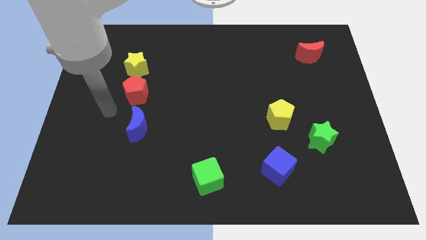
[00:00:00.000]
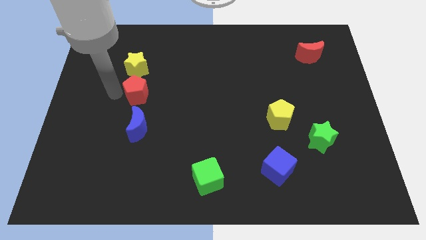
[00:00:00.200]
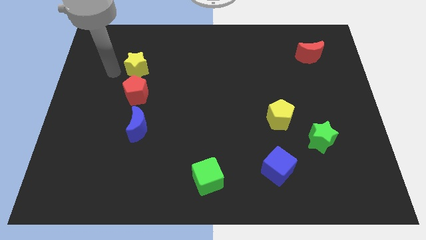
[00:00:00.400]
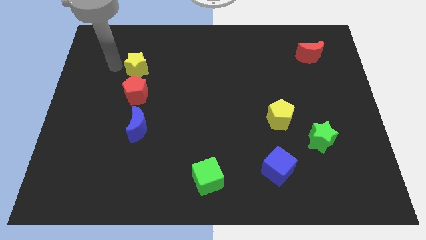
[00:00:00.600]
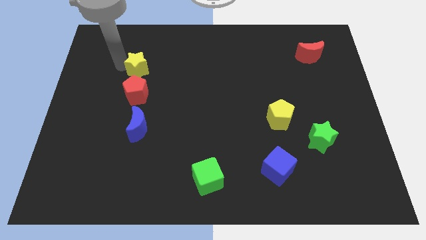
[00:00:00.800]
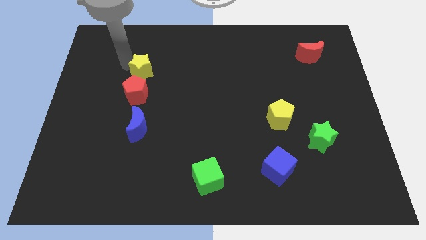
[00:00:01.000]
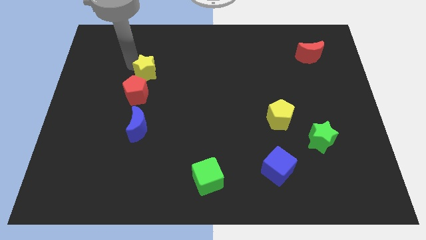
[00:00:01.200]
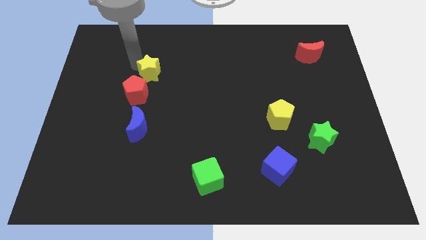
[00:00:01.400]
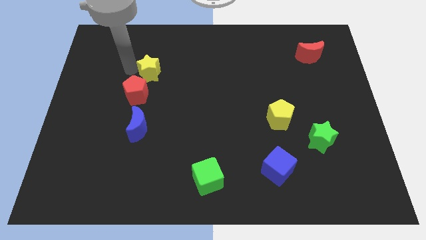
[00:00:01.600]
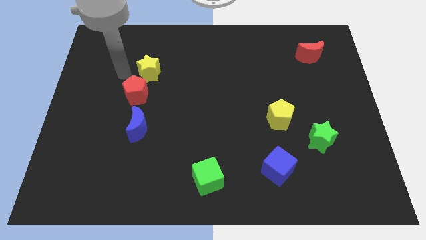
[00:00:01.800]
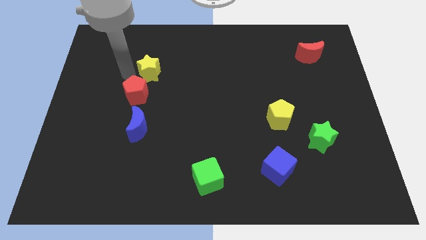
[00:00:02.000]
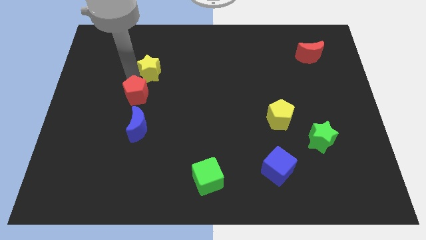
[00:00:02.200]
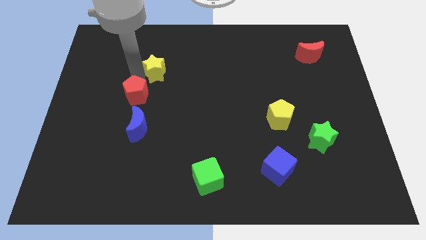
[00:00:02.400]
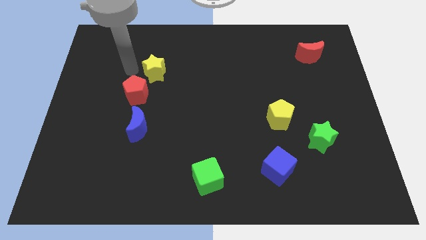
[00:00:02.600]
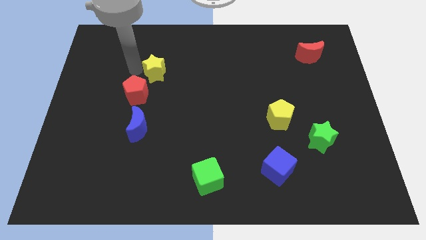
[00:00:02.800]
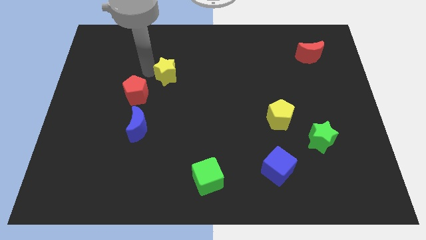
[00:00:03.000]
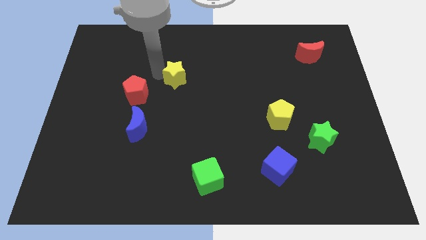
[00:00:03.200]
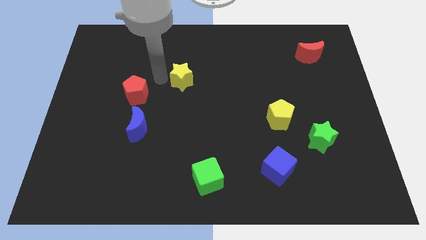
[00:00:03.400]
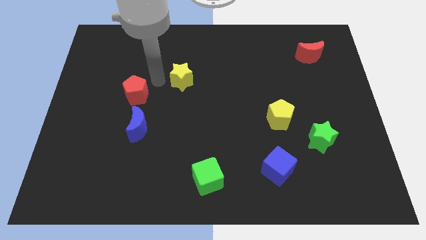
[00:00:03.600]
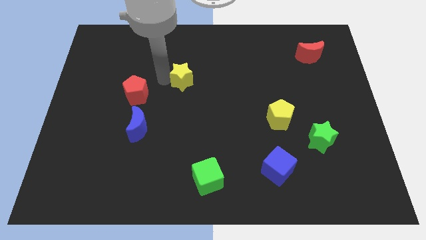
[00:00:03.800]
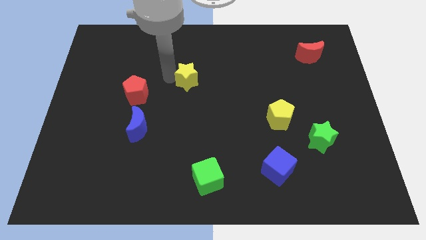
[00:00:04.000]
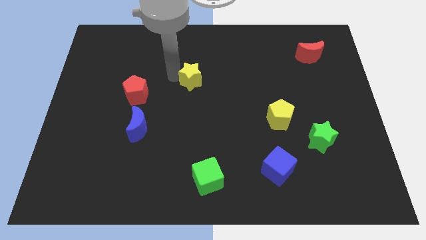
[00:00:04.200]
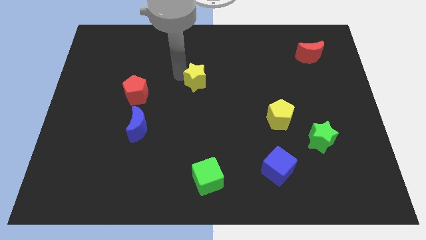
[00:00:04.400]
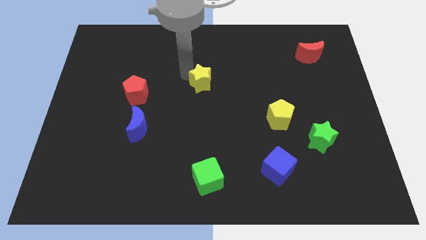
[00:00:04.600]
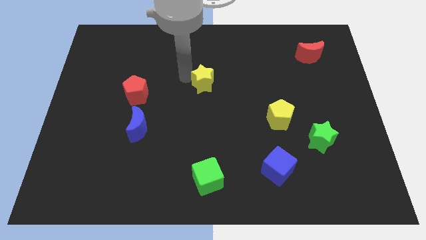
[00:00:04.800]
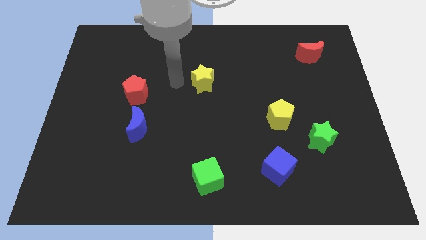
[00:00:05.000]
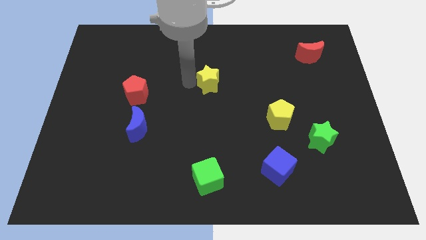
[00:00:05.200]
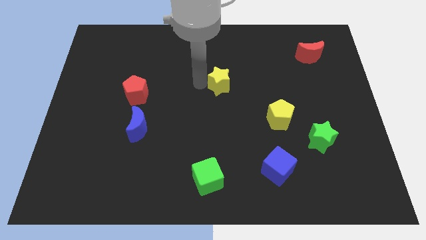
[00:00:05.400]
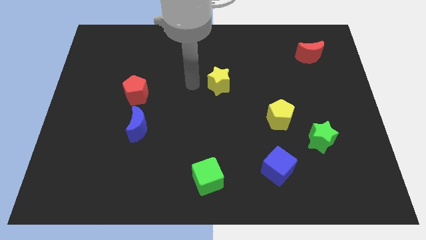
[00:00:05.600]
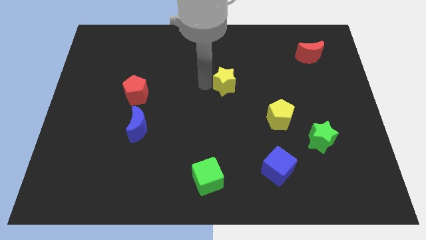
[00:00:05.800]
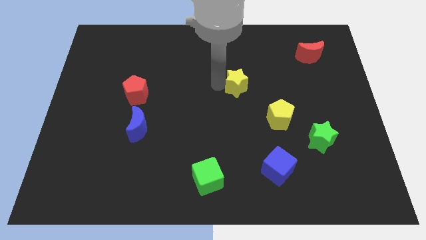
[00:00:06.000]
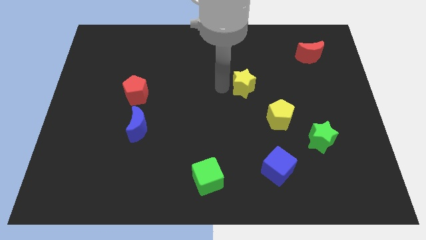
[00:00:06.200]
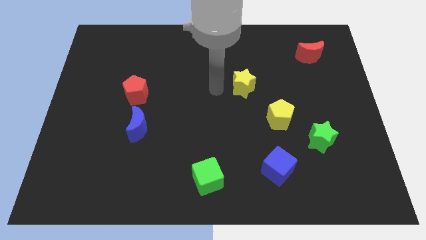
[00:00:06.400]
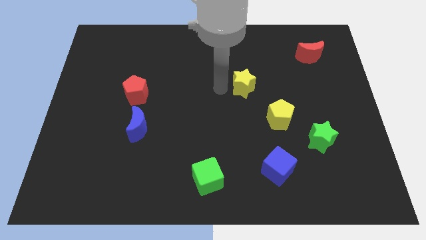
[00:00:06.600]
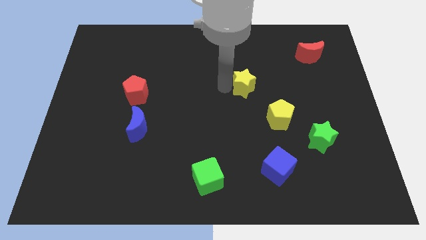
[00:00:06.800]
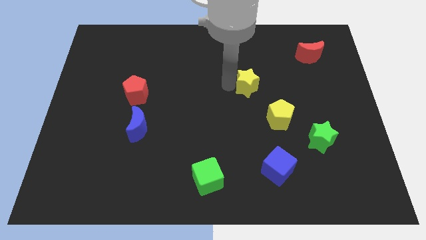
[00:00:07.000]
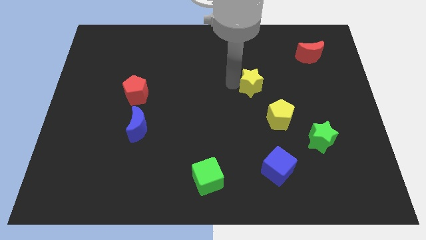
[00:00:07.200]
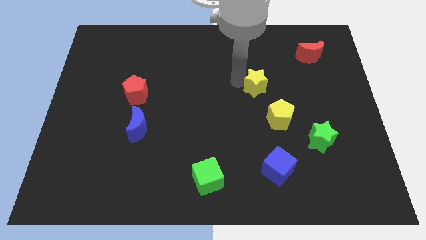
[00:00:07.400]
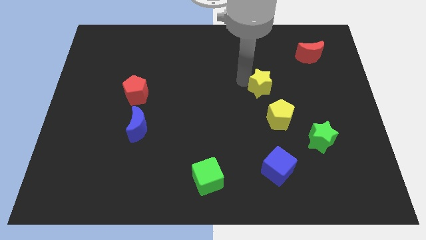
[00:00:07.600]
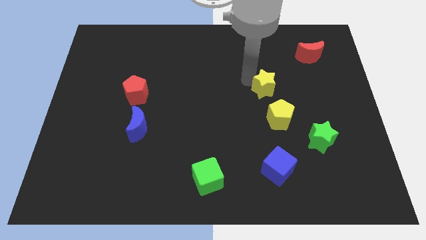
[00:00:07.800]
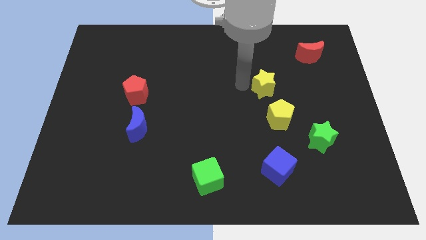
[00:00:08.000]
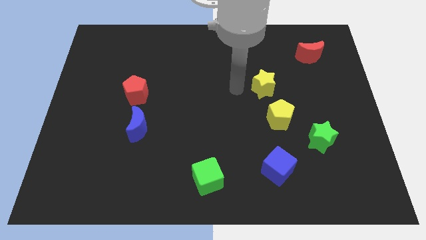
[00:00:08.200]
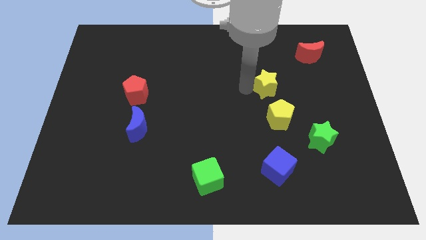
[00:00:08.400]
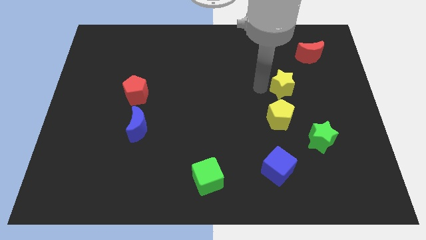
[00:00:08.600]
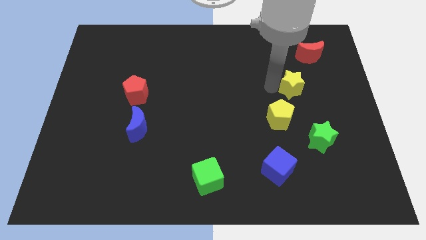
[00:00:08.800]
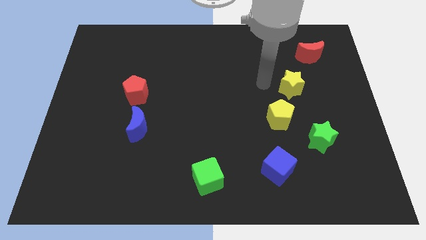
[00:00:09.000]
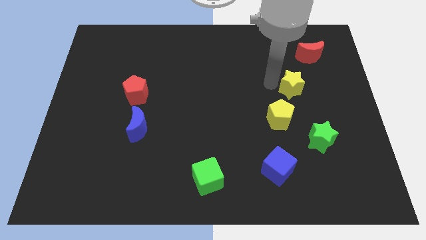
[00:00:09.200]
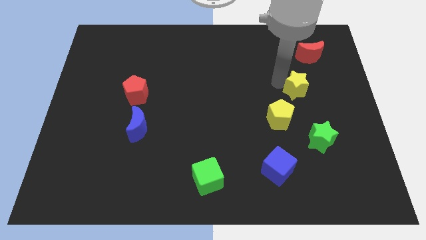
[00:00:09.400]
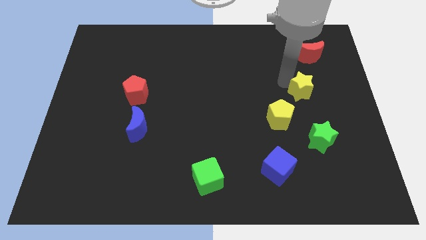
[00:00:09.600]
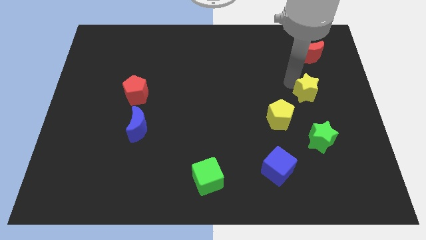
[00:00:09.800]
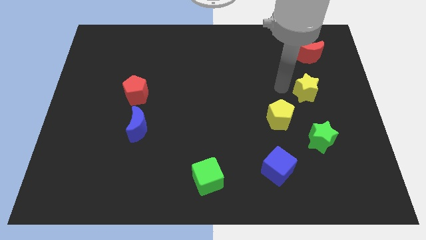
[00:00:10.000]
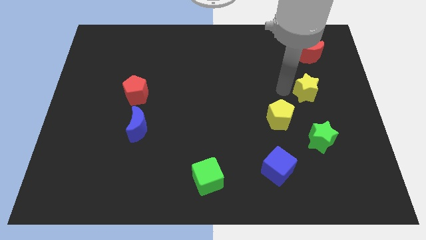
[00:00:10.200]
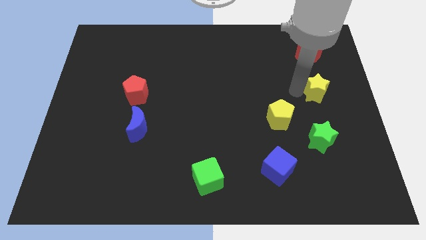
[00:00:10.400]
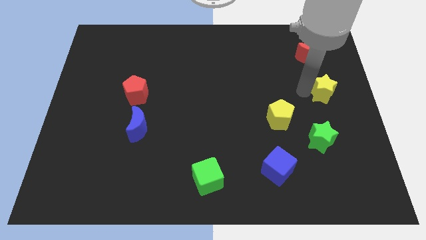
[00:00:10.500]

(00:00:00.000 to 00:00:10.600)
move the yellow star to the right side

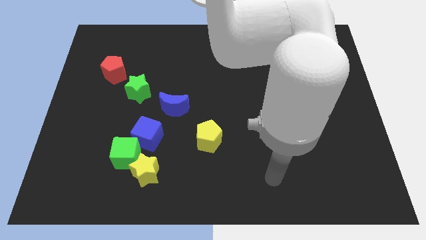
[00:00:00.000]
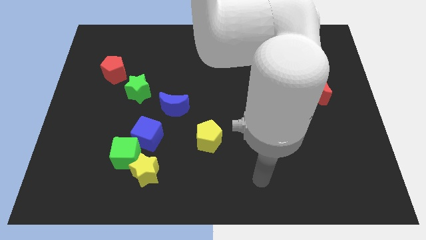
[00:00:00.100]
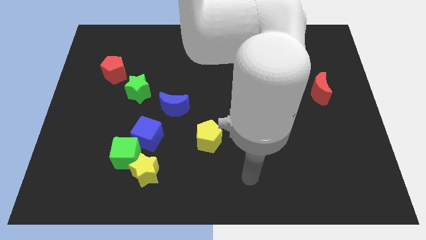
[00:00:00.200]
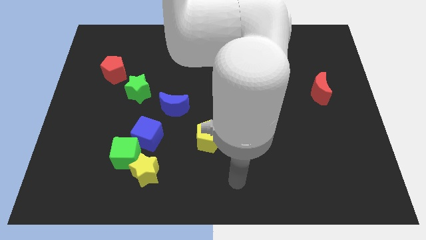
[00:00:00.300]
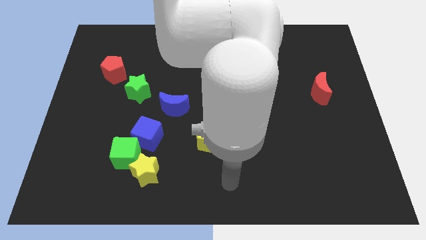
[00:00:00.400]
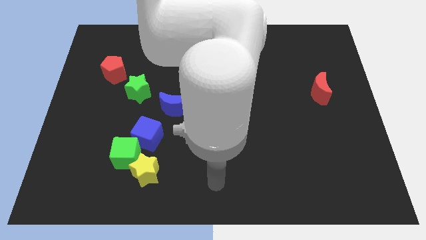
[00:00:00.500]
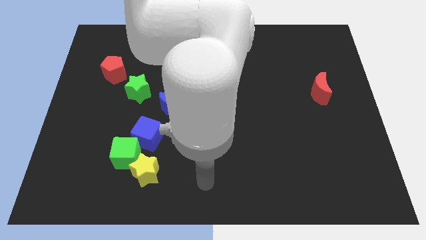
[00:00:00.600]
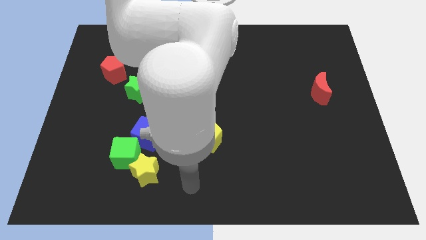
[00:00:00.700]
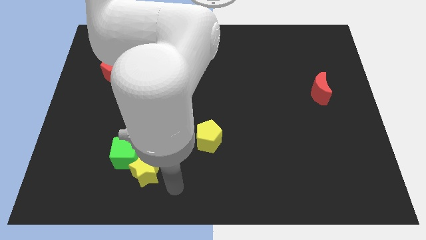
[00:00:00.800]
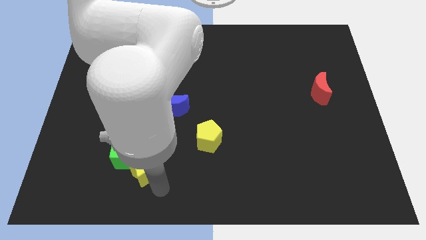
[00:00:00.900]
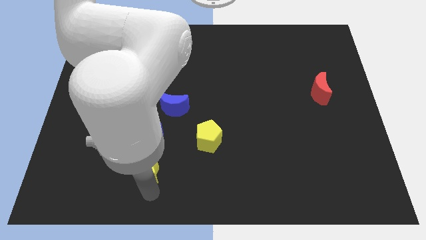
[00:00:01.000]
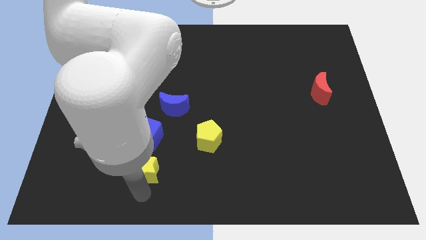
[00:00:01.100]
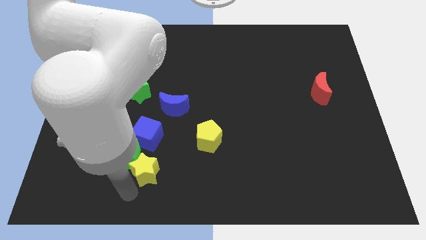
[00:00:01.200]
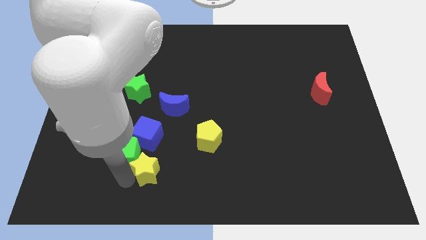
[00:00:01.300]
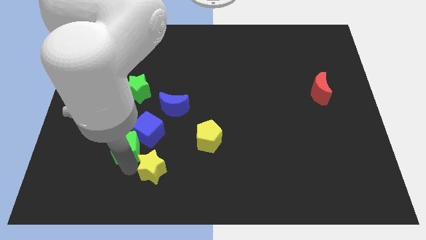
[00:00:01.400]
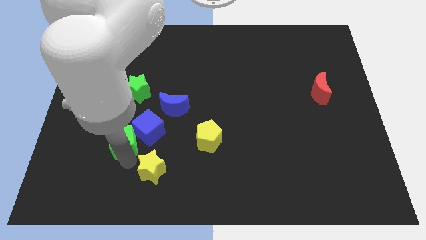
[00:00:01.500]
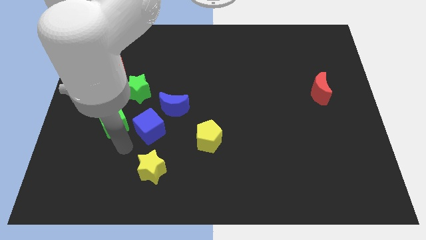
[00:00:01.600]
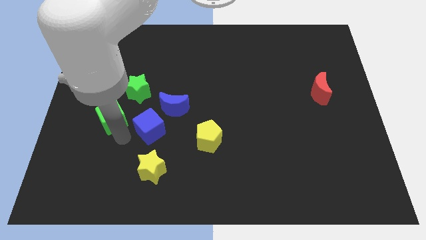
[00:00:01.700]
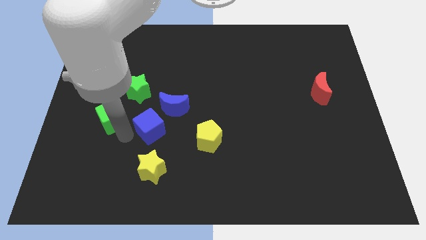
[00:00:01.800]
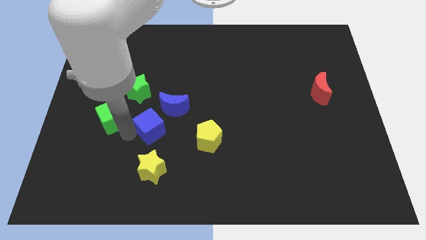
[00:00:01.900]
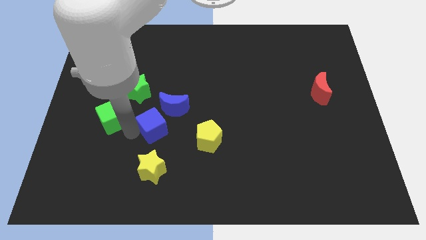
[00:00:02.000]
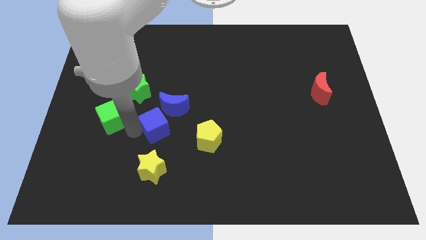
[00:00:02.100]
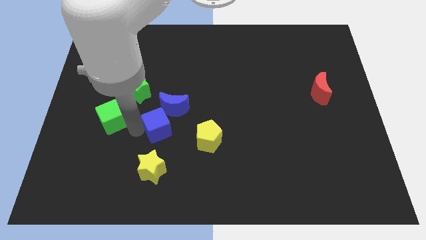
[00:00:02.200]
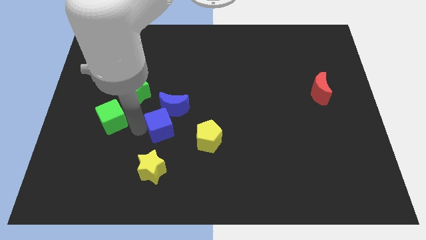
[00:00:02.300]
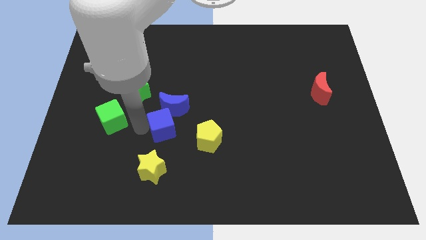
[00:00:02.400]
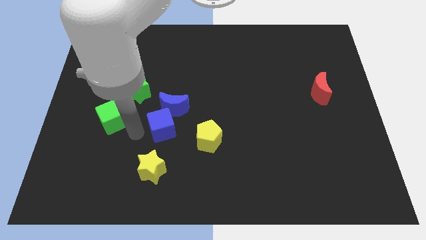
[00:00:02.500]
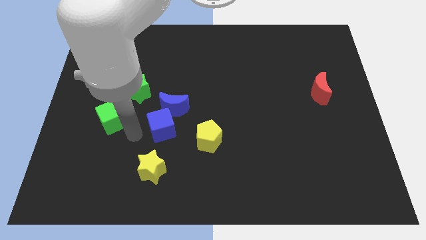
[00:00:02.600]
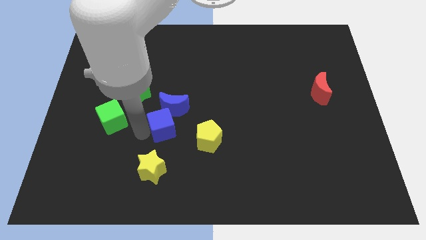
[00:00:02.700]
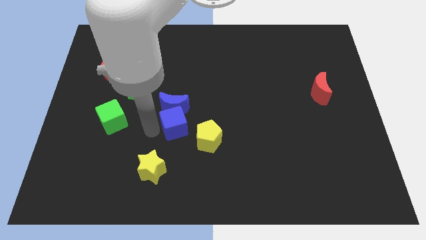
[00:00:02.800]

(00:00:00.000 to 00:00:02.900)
put the blue cube to the middle
